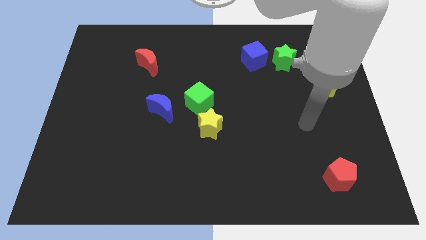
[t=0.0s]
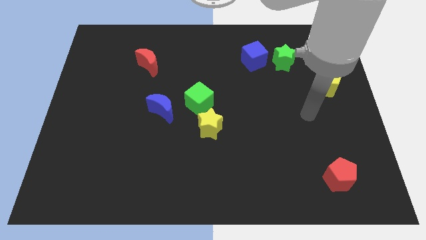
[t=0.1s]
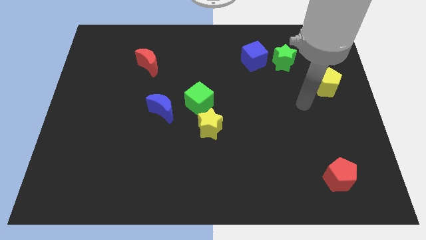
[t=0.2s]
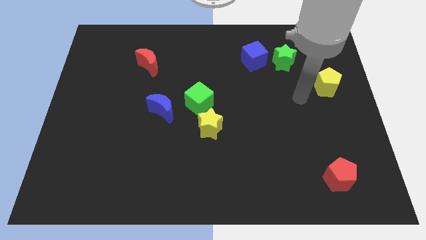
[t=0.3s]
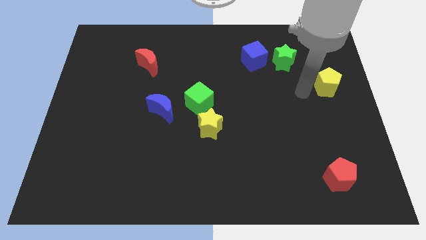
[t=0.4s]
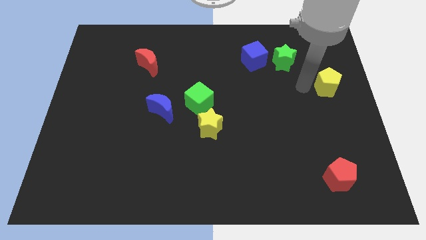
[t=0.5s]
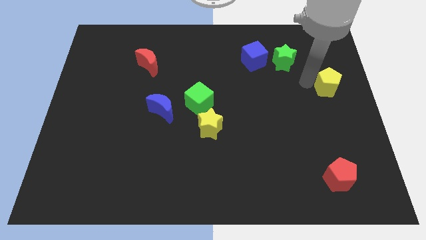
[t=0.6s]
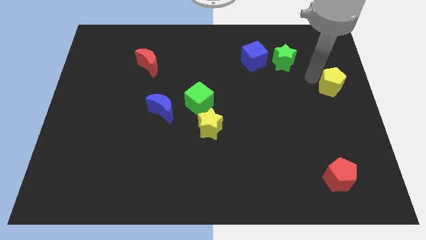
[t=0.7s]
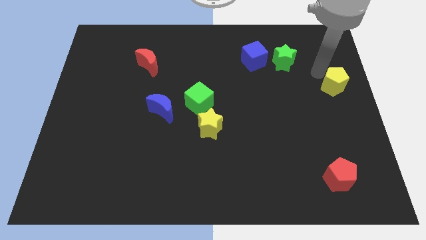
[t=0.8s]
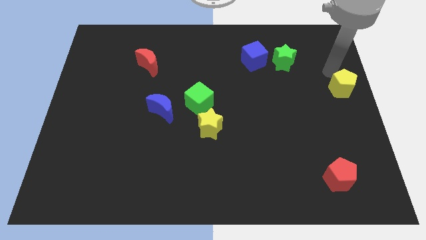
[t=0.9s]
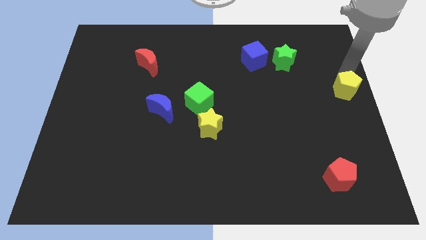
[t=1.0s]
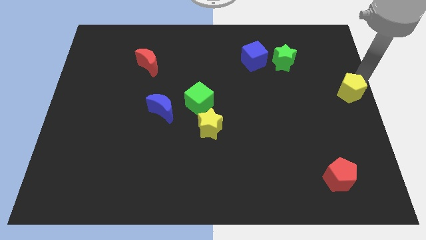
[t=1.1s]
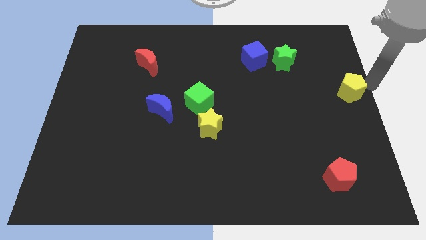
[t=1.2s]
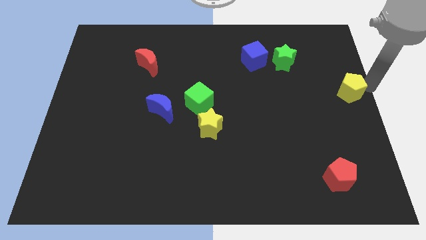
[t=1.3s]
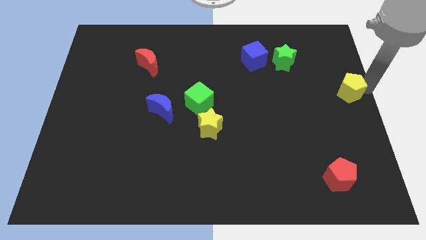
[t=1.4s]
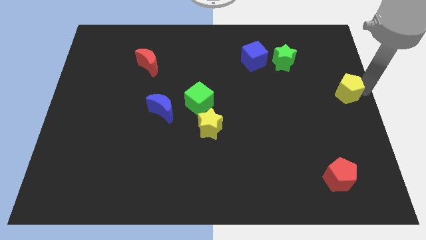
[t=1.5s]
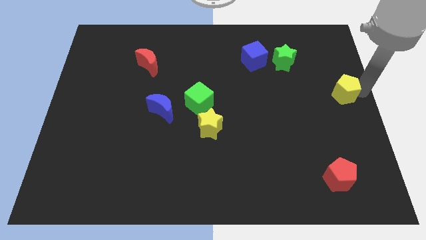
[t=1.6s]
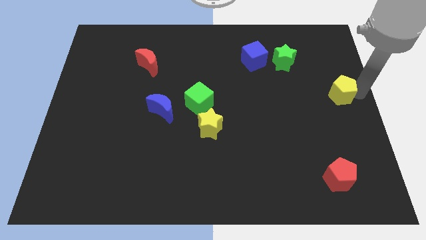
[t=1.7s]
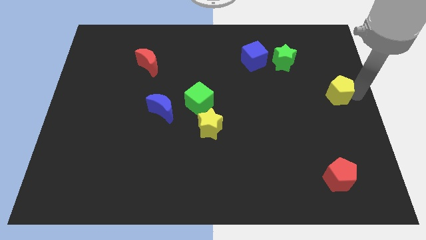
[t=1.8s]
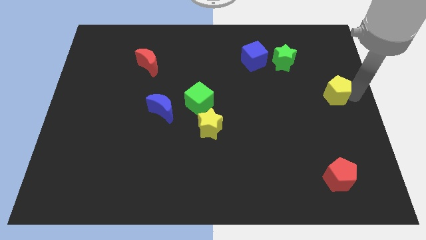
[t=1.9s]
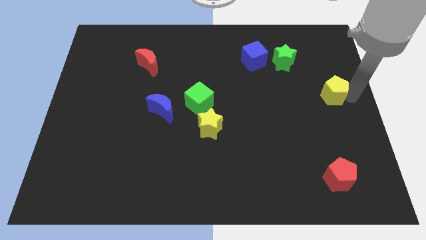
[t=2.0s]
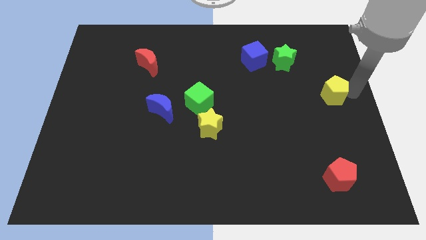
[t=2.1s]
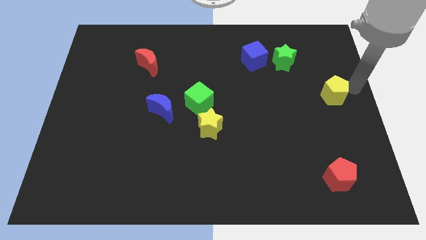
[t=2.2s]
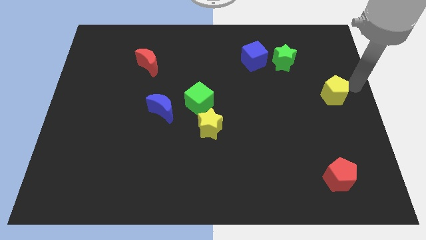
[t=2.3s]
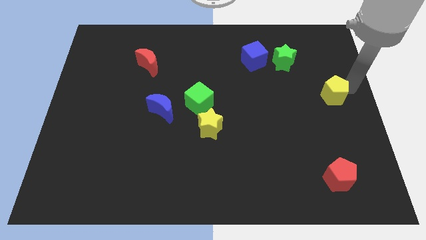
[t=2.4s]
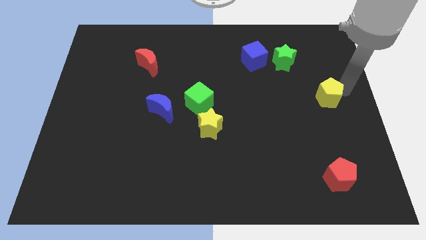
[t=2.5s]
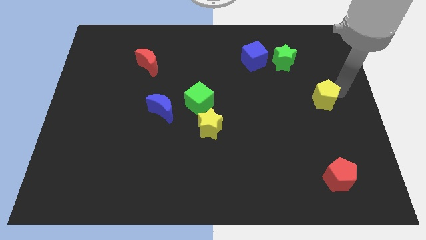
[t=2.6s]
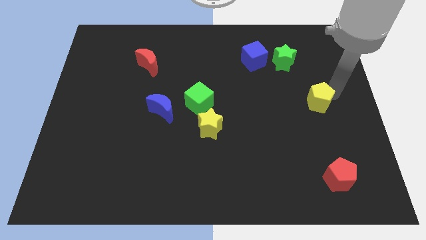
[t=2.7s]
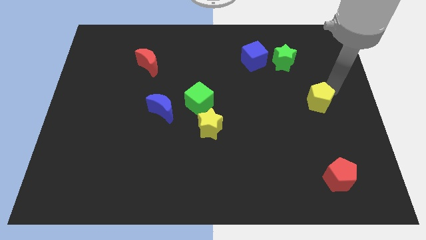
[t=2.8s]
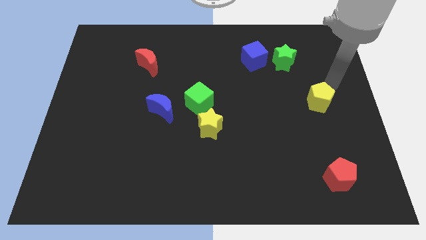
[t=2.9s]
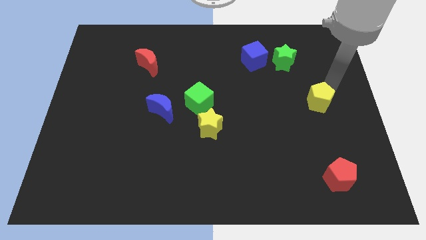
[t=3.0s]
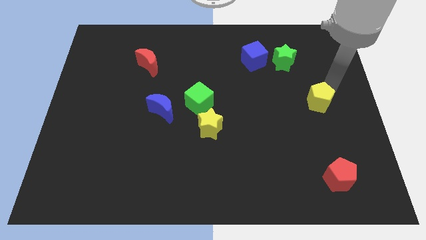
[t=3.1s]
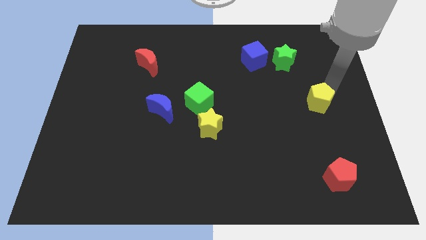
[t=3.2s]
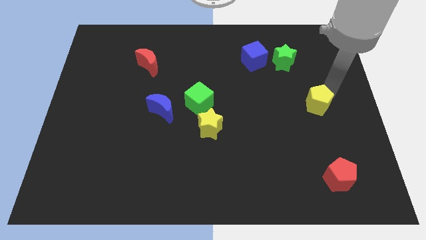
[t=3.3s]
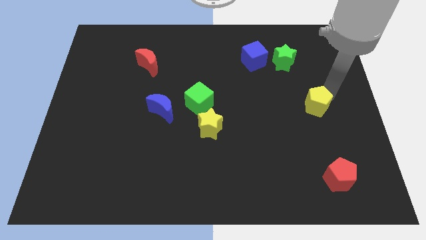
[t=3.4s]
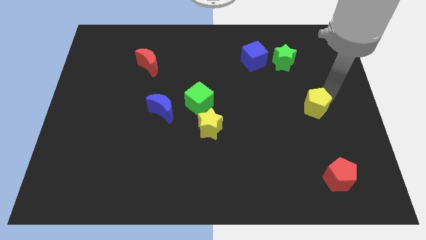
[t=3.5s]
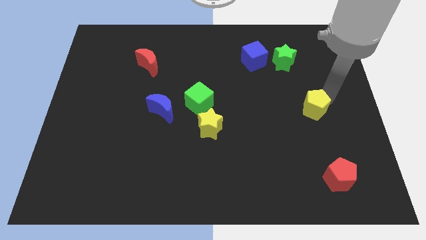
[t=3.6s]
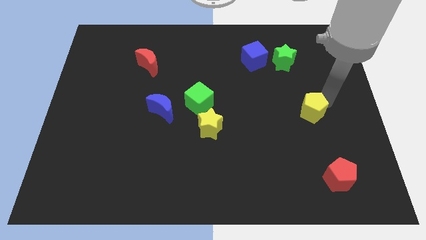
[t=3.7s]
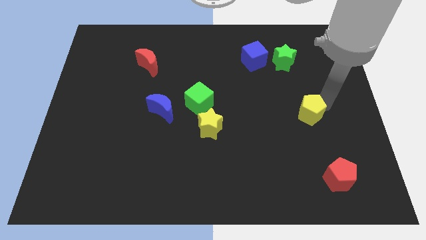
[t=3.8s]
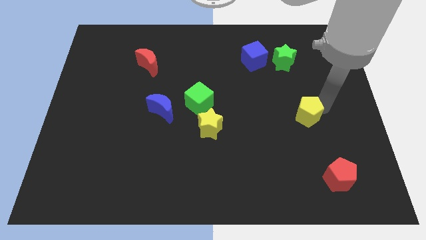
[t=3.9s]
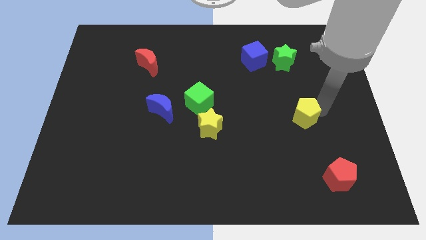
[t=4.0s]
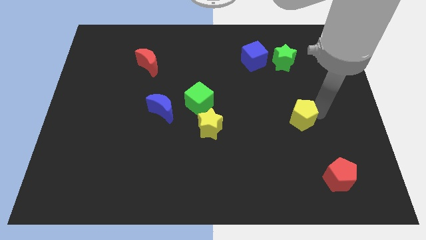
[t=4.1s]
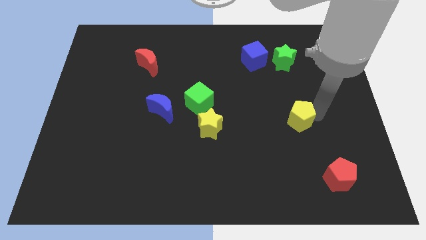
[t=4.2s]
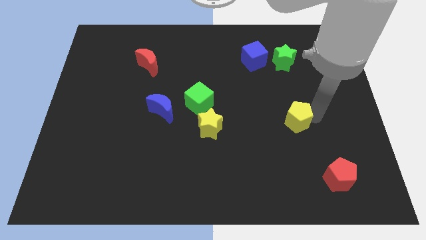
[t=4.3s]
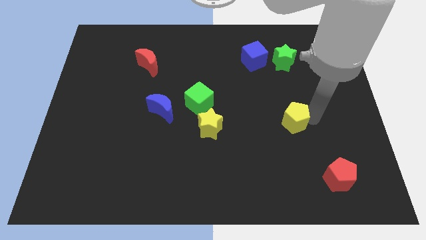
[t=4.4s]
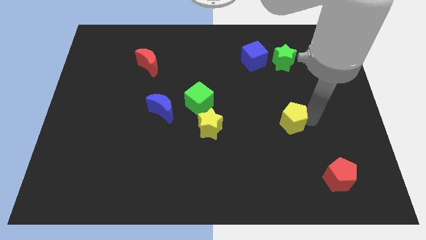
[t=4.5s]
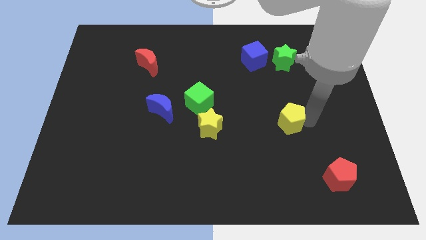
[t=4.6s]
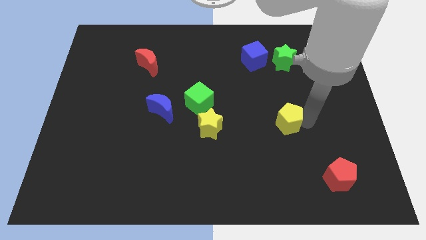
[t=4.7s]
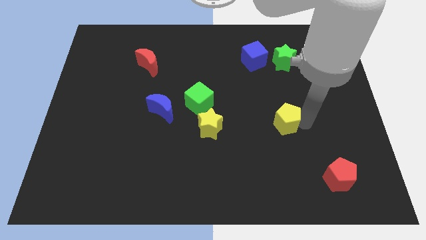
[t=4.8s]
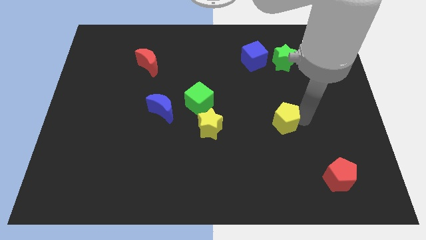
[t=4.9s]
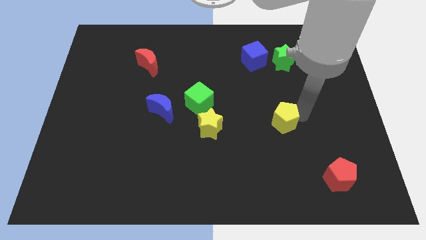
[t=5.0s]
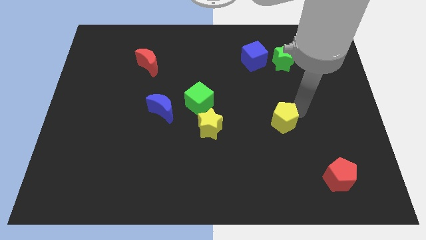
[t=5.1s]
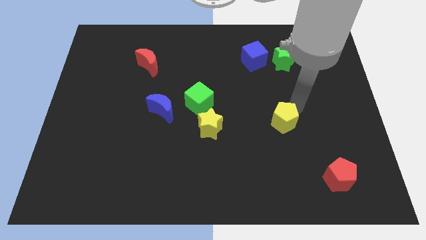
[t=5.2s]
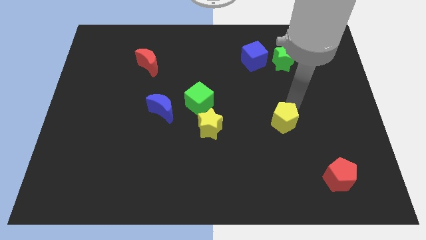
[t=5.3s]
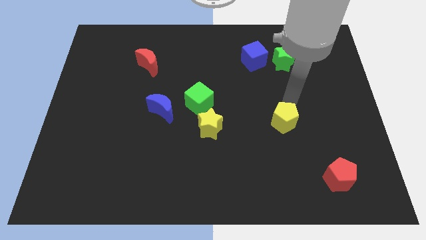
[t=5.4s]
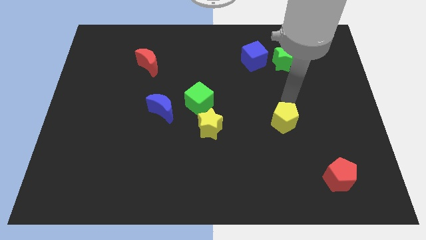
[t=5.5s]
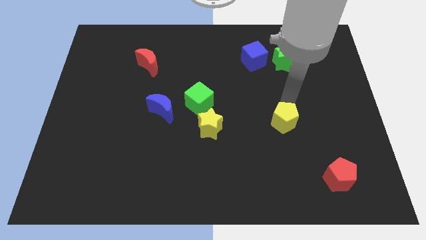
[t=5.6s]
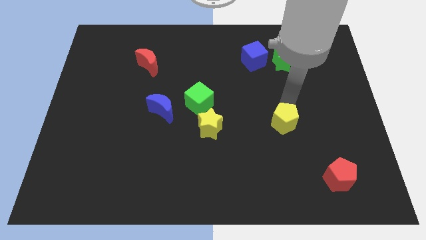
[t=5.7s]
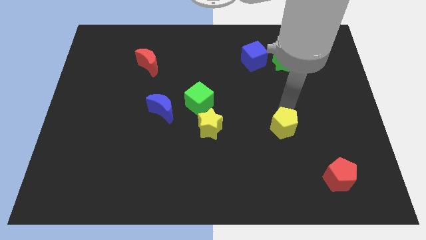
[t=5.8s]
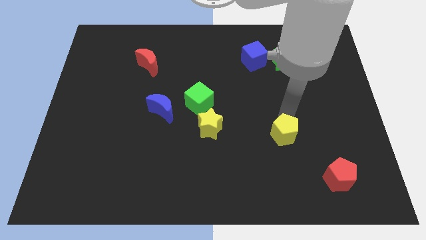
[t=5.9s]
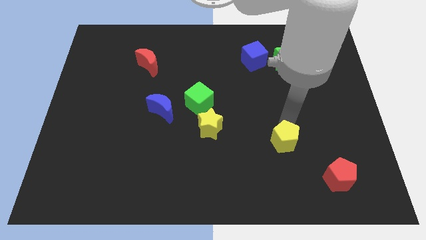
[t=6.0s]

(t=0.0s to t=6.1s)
move the yellow pentagon down and left

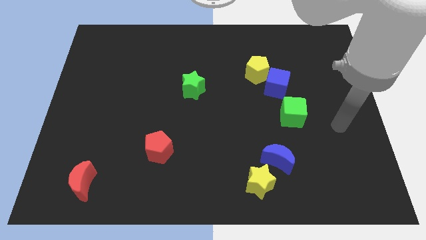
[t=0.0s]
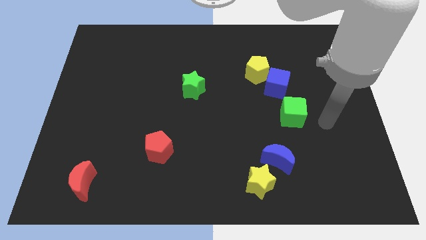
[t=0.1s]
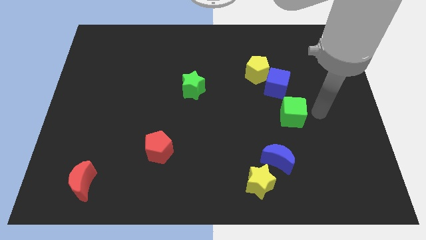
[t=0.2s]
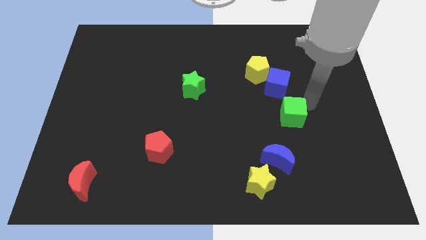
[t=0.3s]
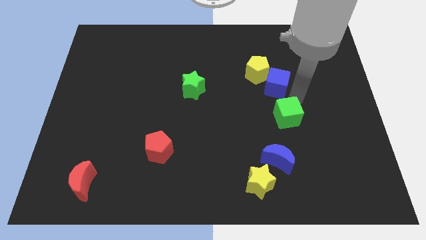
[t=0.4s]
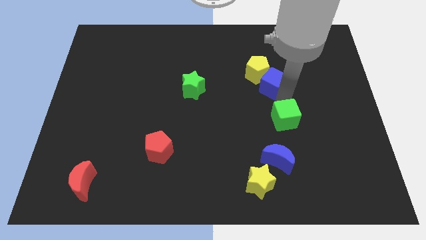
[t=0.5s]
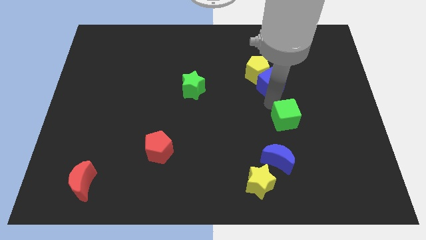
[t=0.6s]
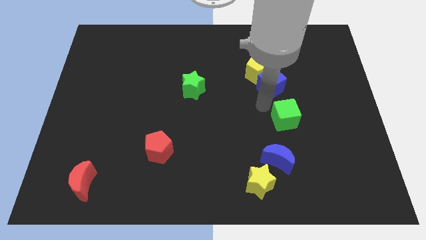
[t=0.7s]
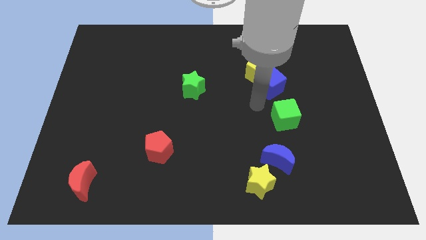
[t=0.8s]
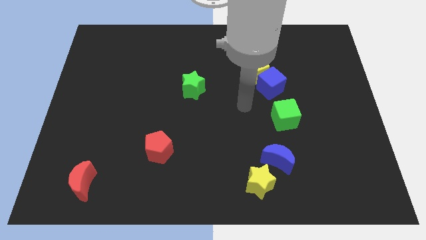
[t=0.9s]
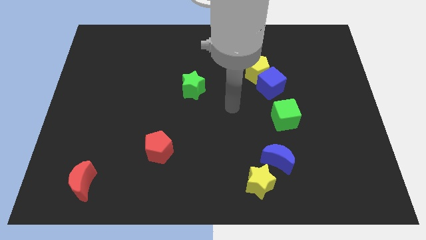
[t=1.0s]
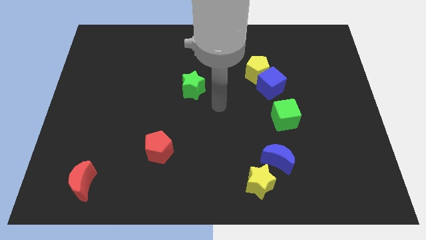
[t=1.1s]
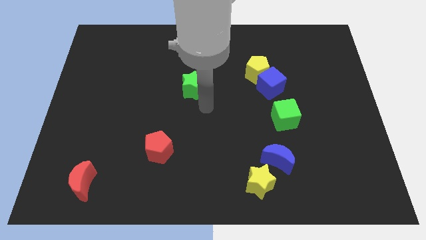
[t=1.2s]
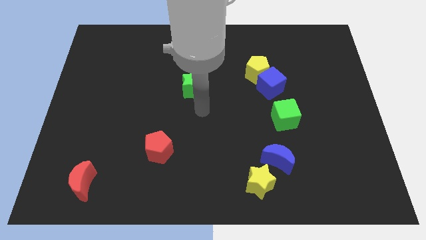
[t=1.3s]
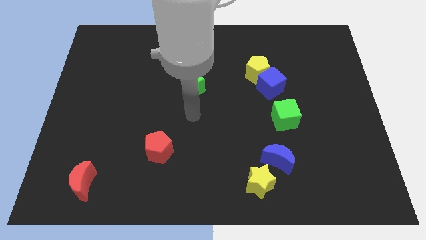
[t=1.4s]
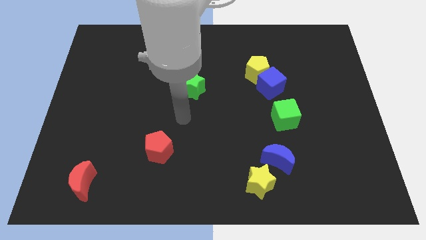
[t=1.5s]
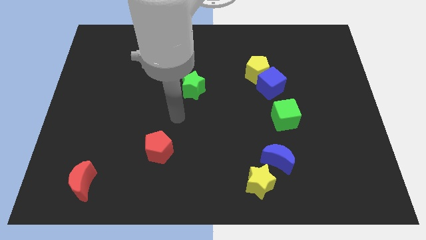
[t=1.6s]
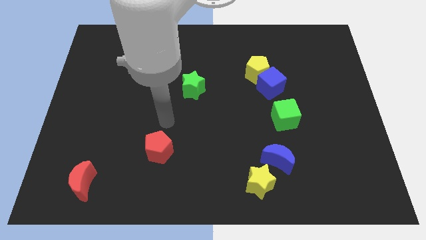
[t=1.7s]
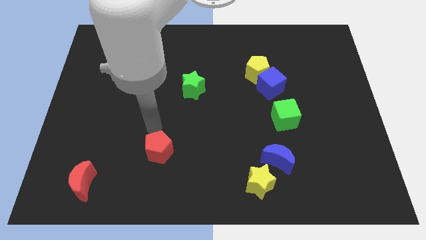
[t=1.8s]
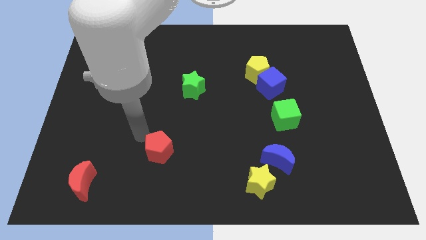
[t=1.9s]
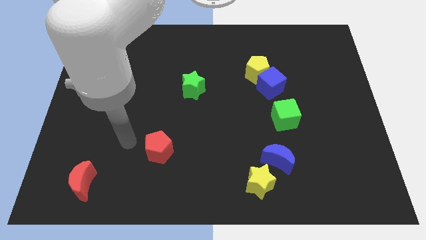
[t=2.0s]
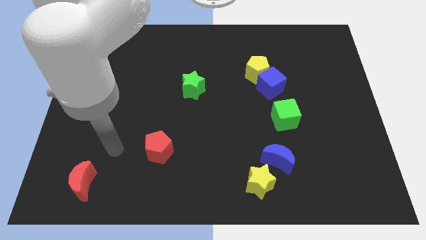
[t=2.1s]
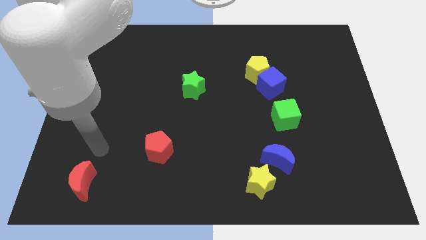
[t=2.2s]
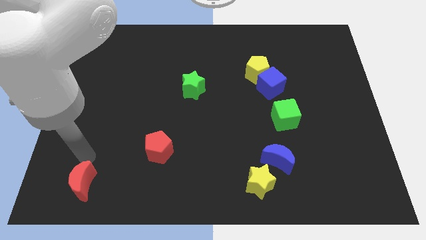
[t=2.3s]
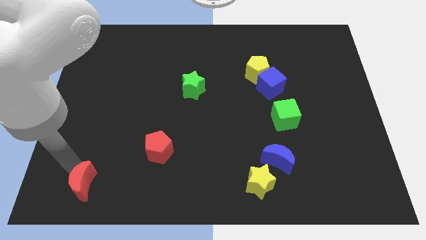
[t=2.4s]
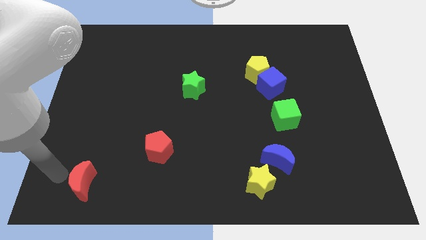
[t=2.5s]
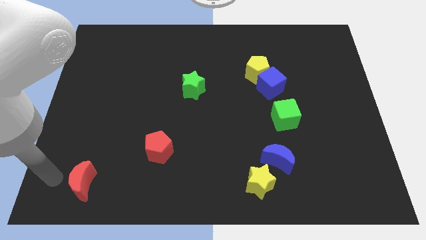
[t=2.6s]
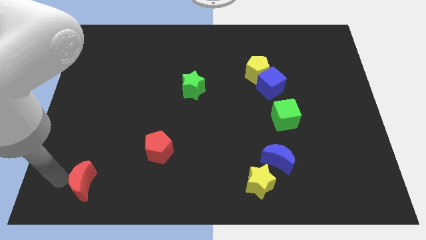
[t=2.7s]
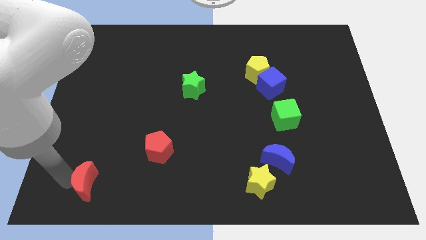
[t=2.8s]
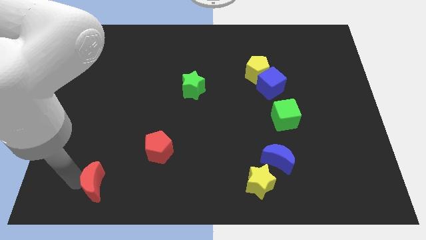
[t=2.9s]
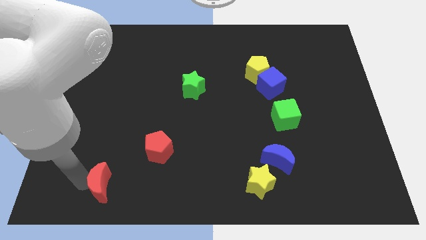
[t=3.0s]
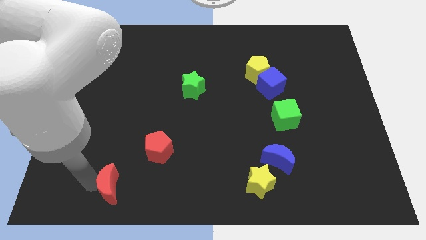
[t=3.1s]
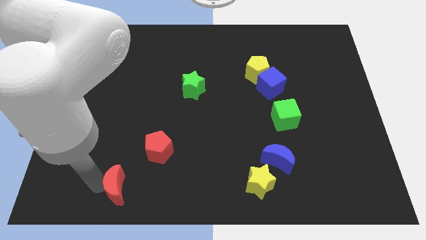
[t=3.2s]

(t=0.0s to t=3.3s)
push the red moon a bit right
